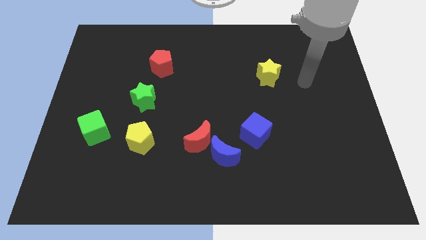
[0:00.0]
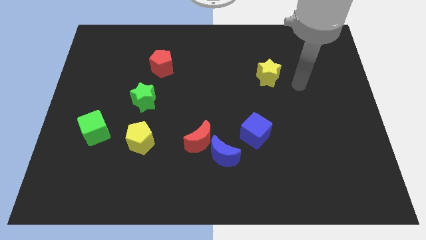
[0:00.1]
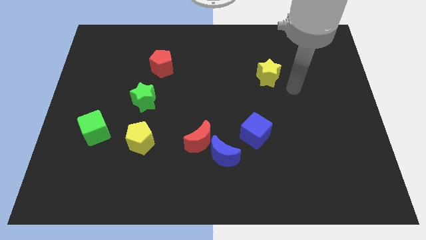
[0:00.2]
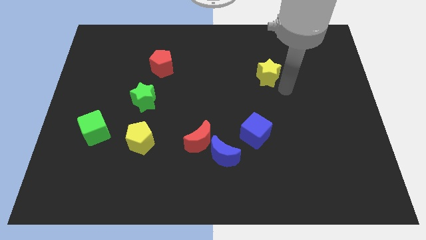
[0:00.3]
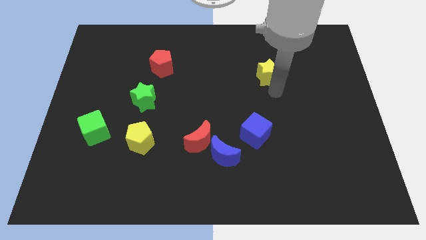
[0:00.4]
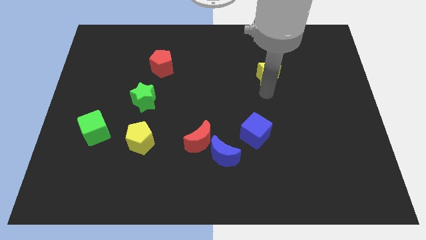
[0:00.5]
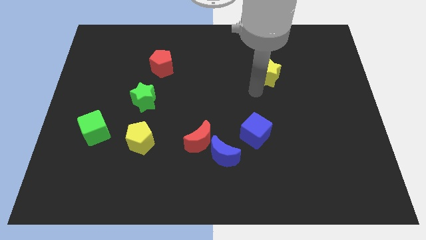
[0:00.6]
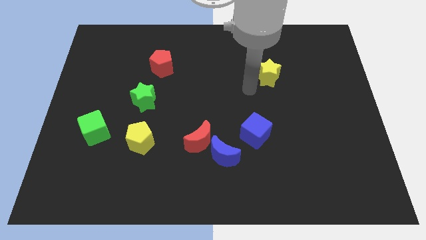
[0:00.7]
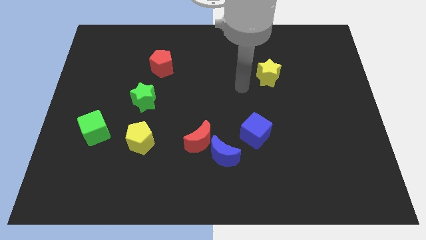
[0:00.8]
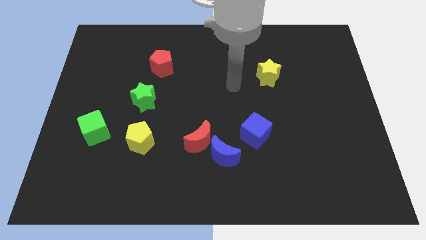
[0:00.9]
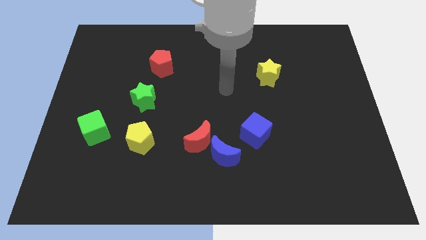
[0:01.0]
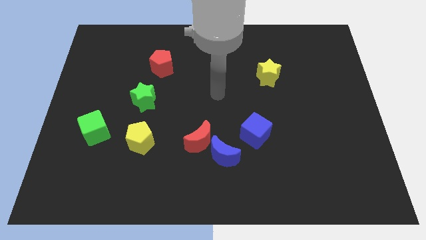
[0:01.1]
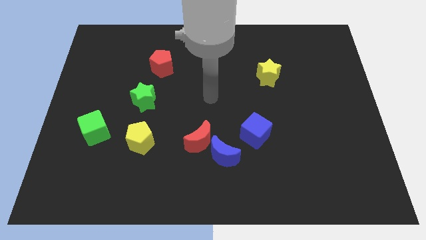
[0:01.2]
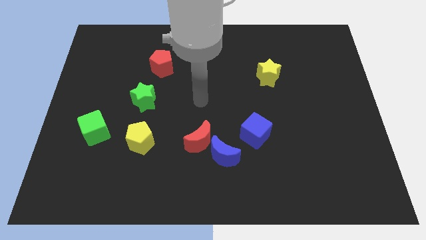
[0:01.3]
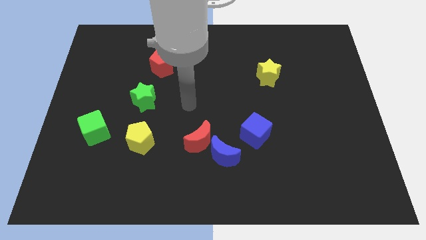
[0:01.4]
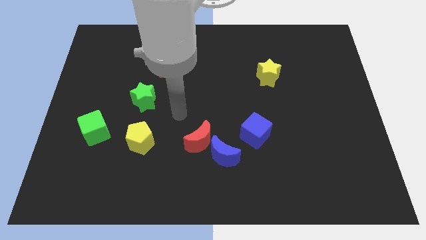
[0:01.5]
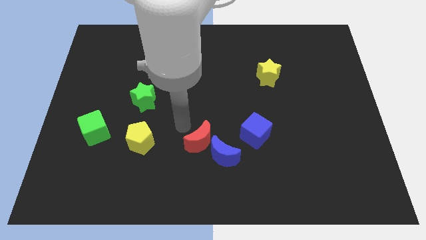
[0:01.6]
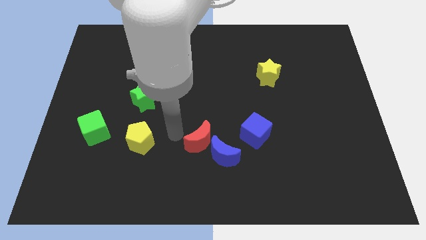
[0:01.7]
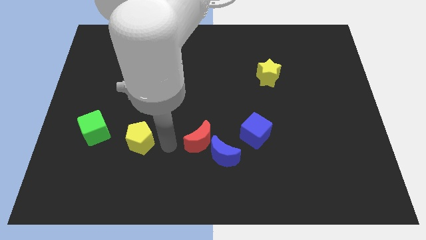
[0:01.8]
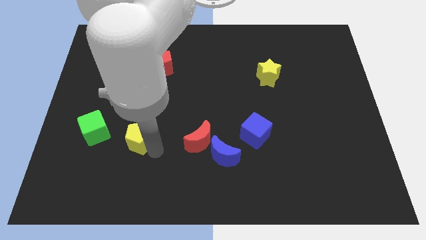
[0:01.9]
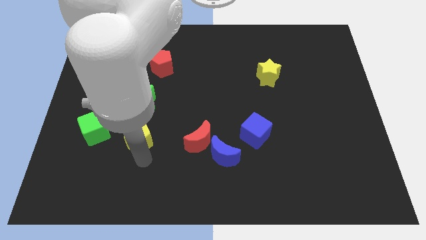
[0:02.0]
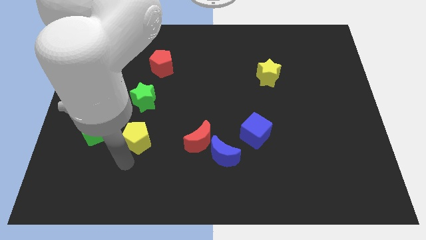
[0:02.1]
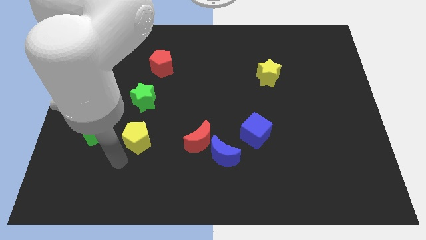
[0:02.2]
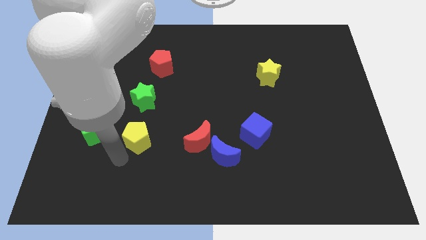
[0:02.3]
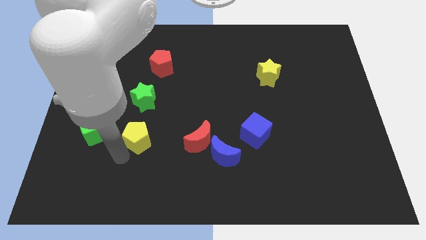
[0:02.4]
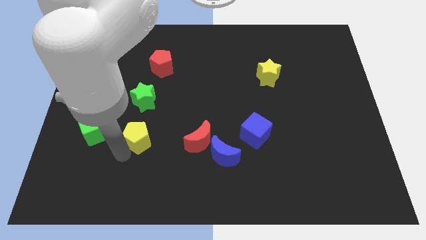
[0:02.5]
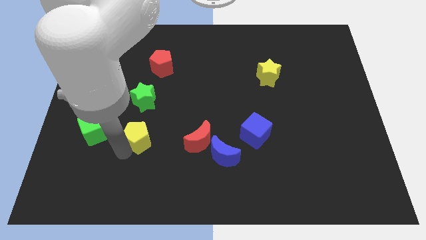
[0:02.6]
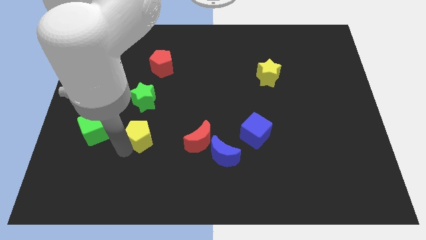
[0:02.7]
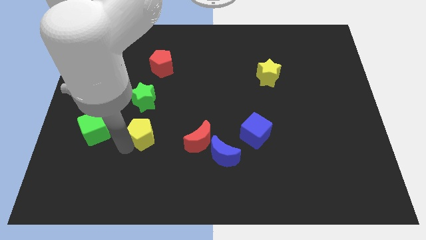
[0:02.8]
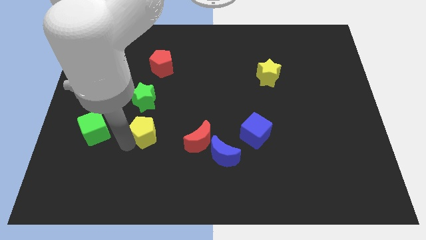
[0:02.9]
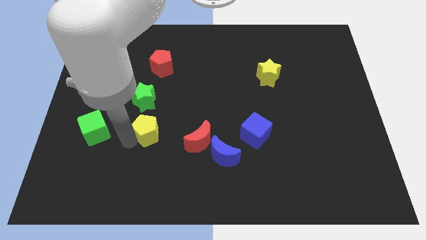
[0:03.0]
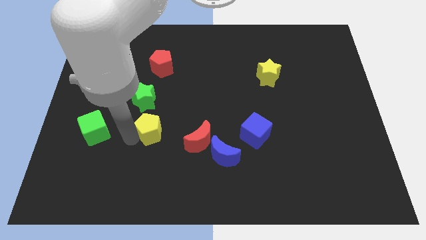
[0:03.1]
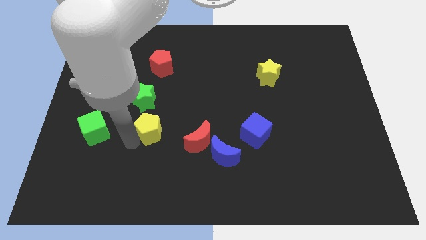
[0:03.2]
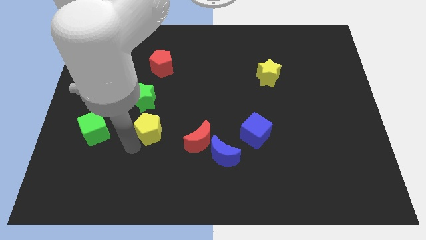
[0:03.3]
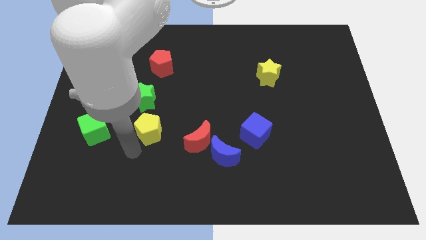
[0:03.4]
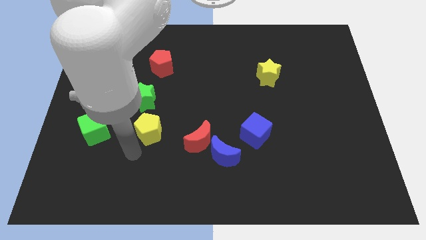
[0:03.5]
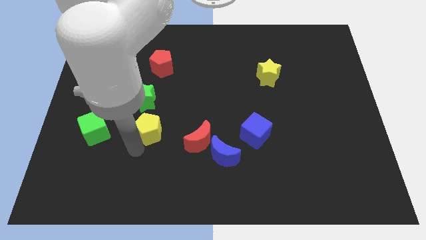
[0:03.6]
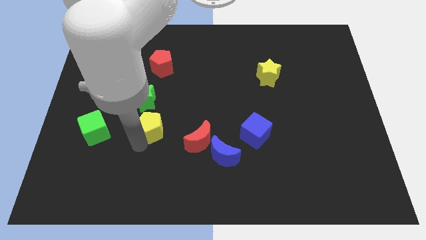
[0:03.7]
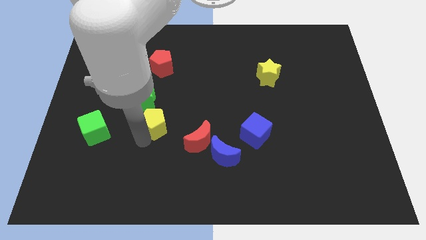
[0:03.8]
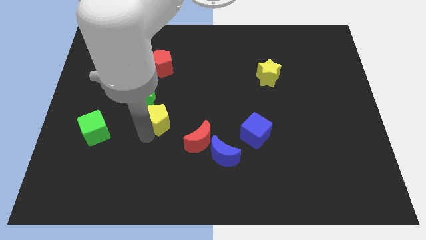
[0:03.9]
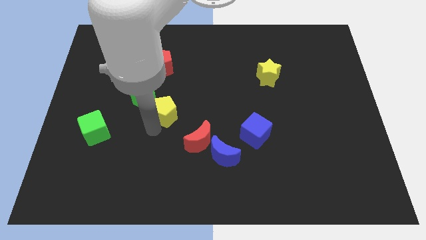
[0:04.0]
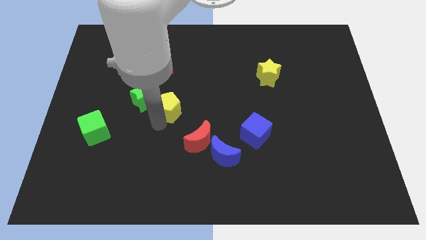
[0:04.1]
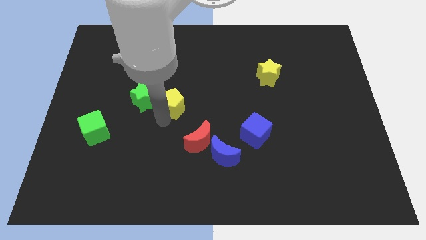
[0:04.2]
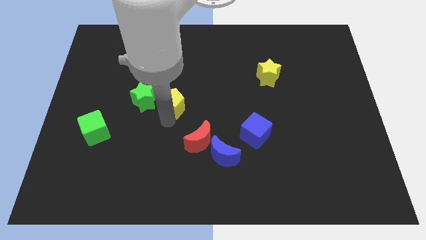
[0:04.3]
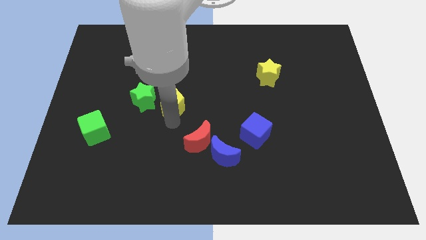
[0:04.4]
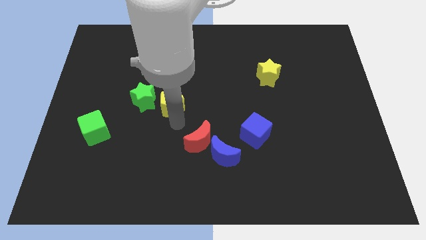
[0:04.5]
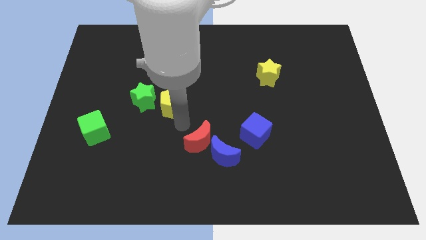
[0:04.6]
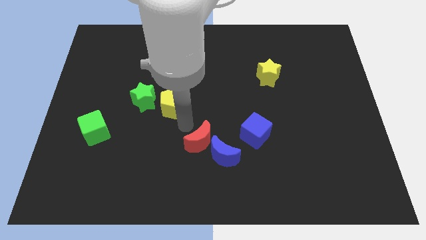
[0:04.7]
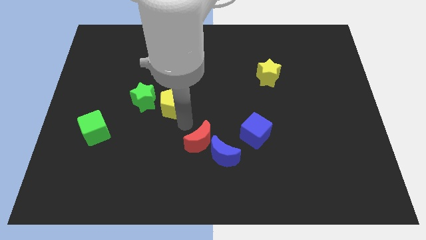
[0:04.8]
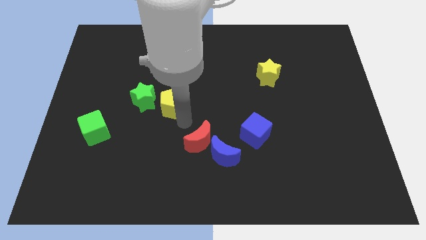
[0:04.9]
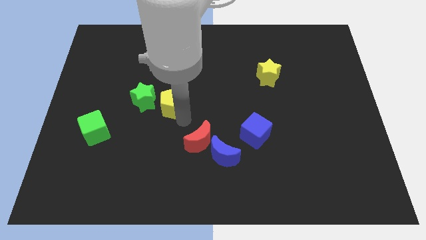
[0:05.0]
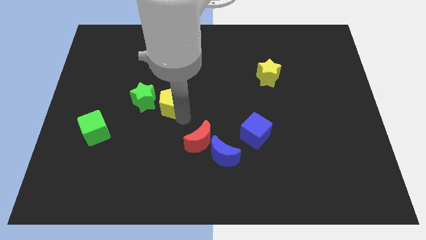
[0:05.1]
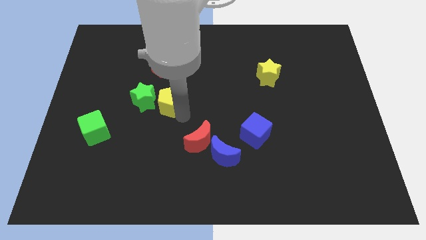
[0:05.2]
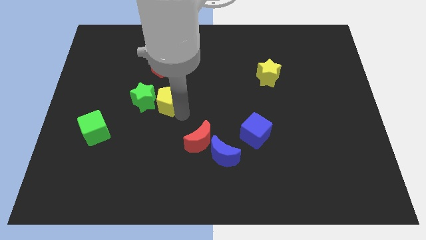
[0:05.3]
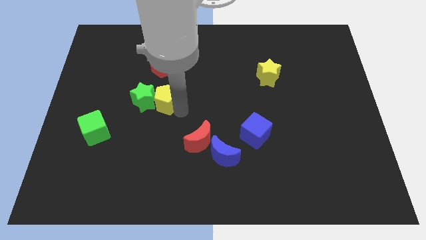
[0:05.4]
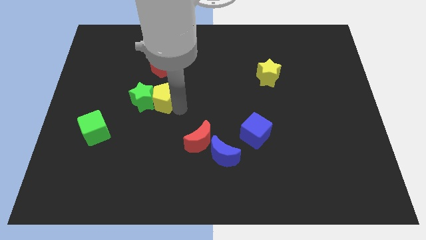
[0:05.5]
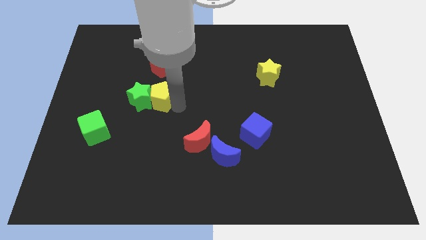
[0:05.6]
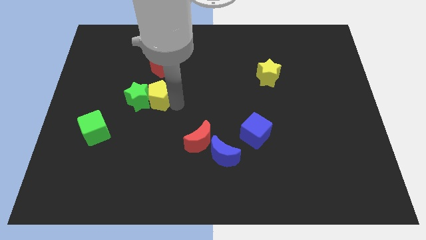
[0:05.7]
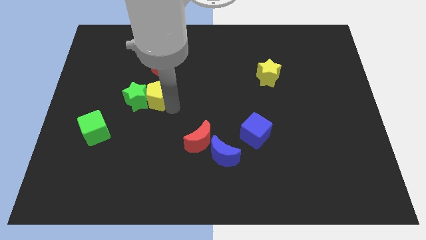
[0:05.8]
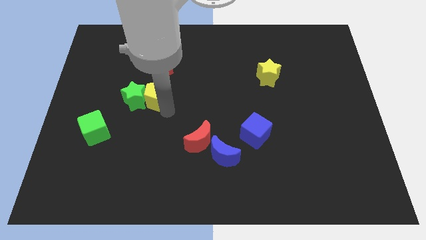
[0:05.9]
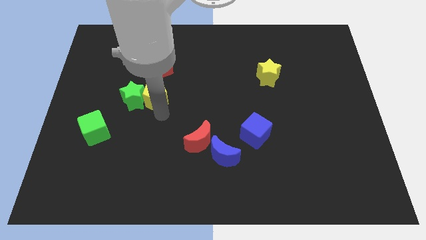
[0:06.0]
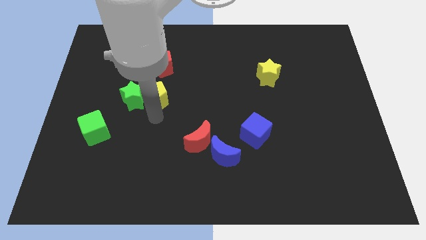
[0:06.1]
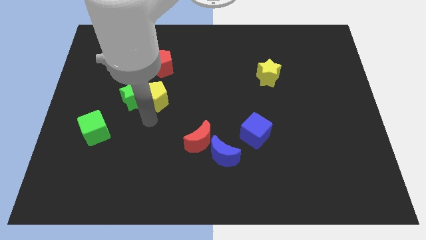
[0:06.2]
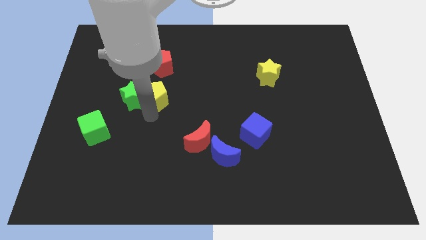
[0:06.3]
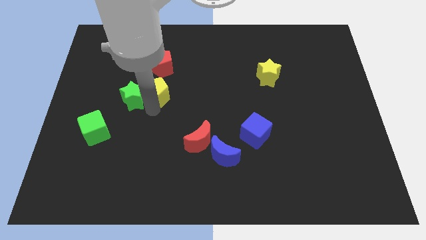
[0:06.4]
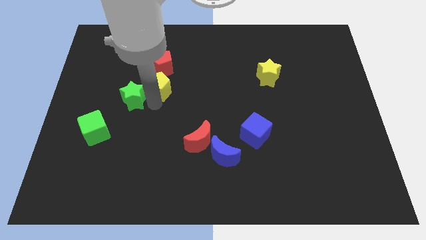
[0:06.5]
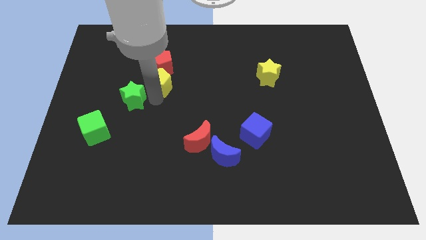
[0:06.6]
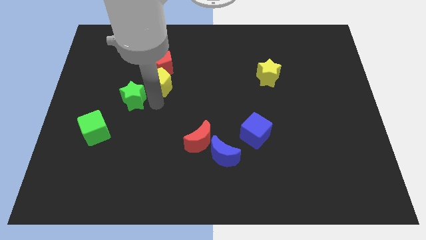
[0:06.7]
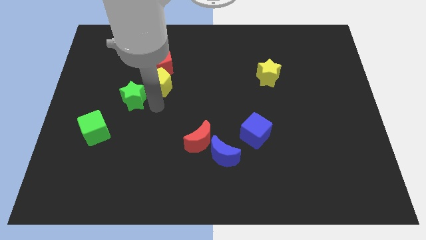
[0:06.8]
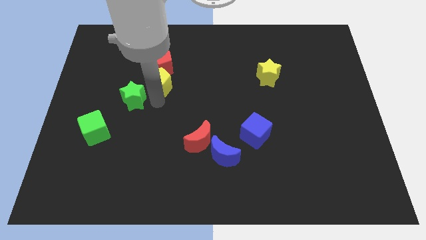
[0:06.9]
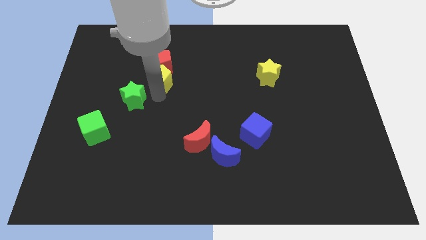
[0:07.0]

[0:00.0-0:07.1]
put the yellow pentagon towards the red pentagon

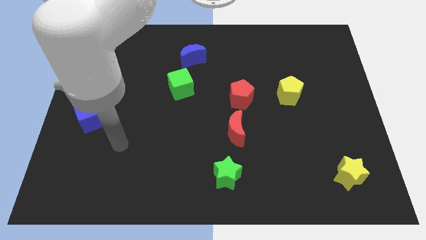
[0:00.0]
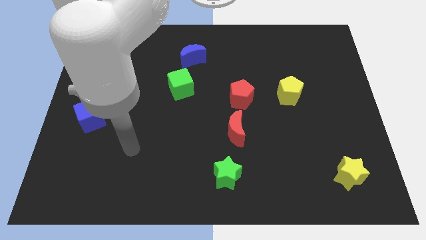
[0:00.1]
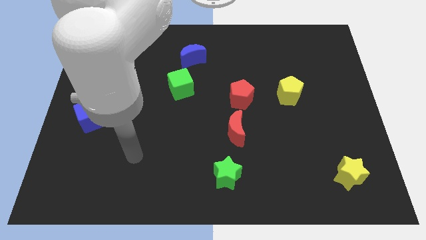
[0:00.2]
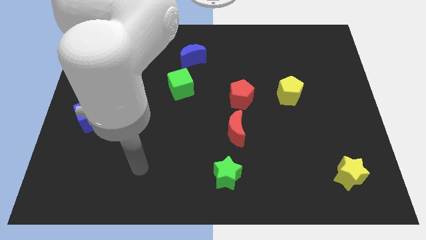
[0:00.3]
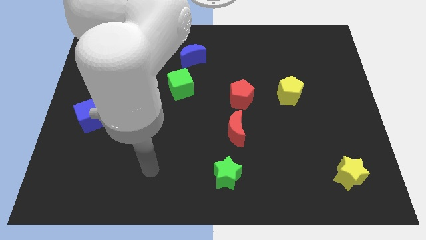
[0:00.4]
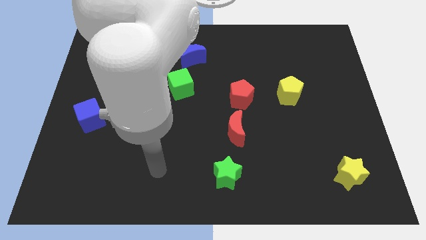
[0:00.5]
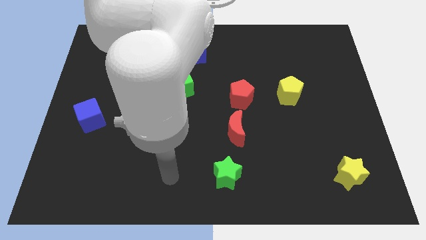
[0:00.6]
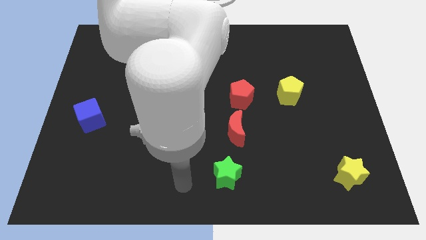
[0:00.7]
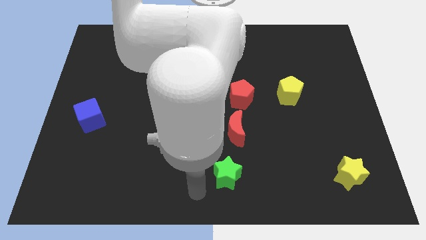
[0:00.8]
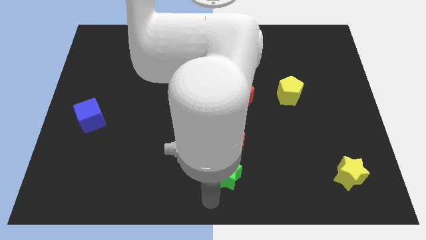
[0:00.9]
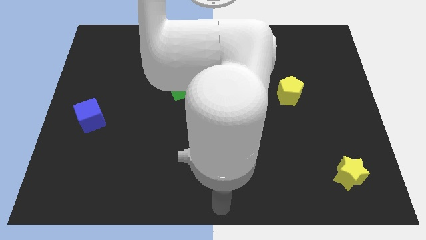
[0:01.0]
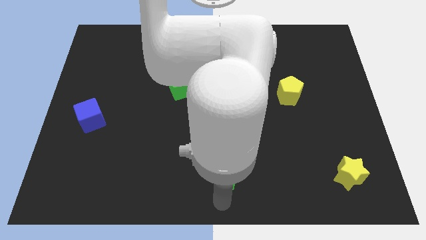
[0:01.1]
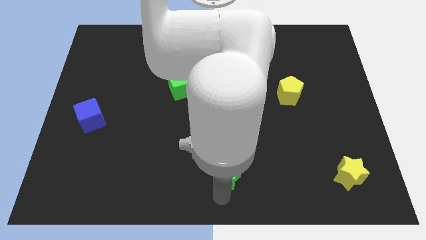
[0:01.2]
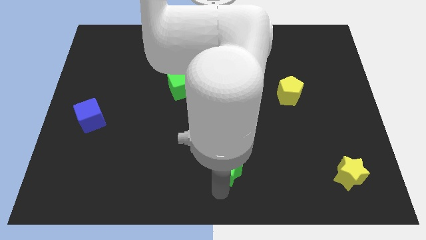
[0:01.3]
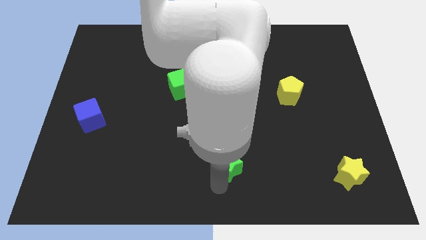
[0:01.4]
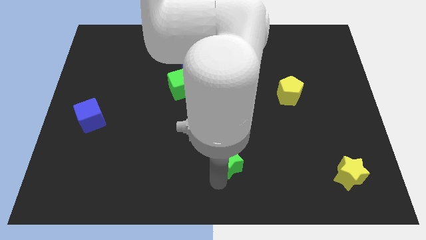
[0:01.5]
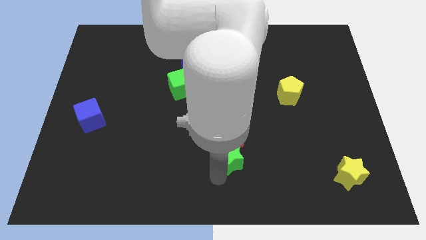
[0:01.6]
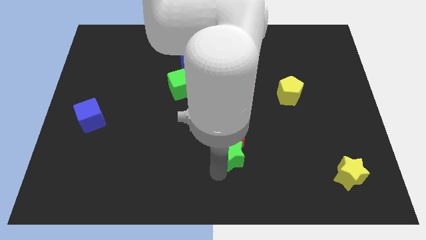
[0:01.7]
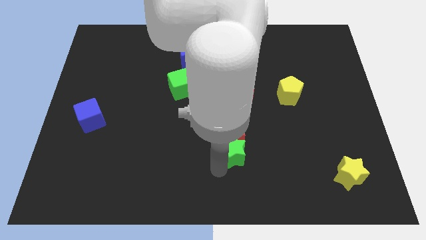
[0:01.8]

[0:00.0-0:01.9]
slide the green star towards the red moon
